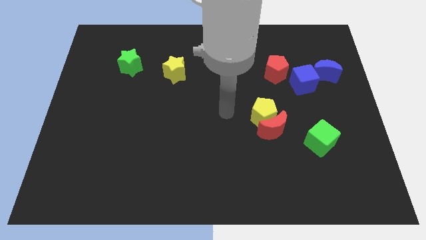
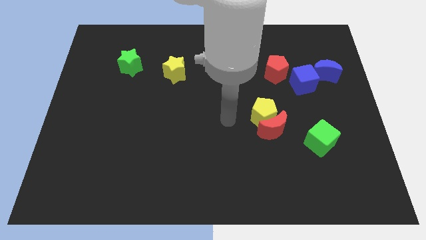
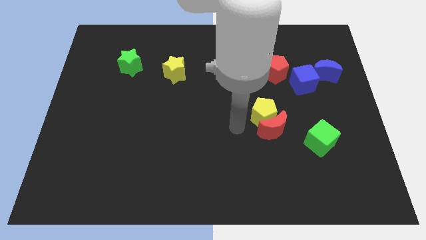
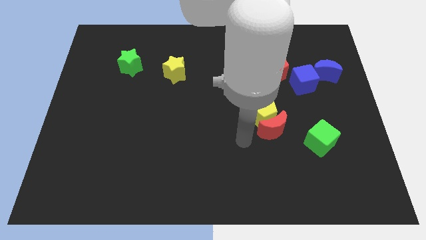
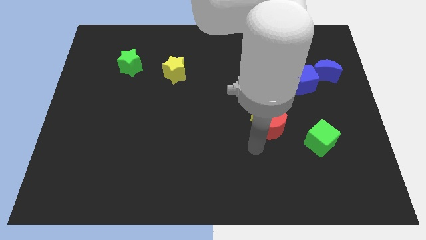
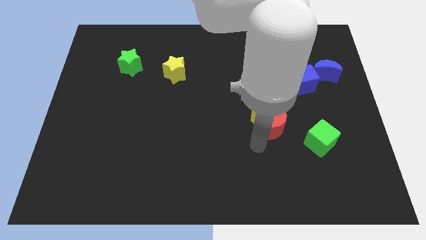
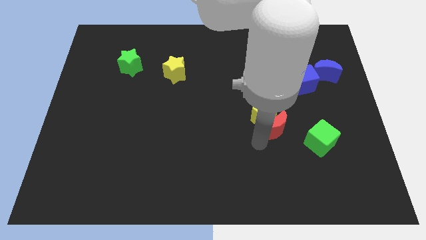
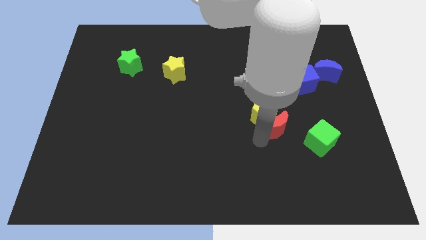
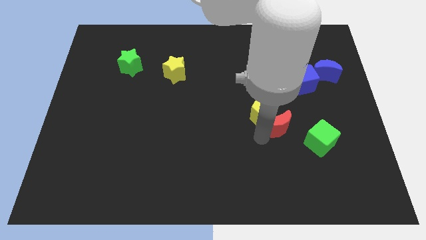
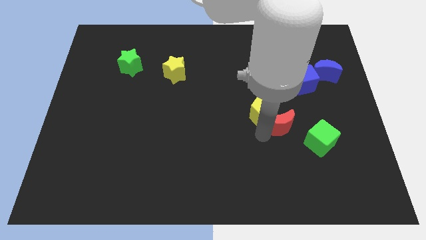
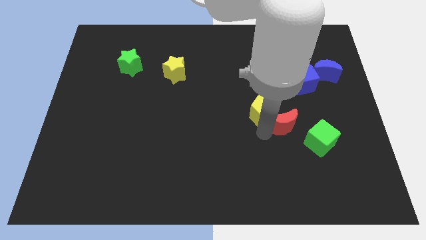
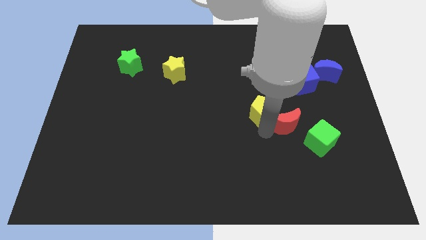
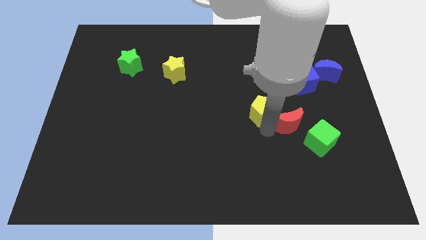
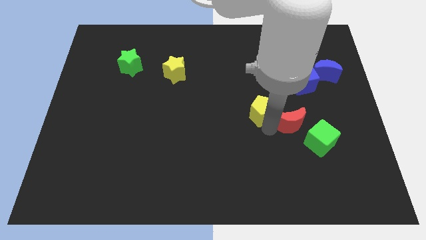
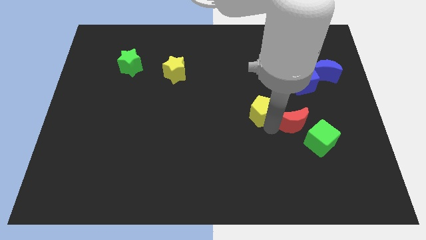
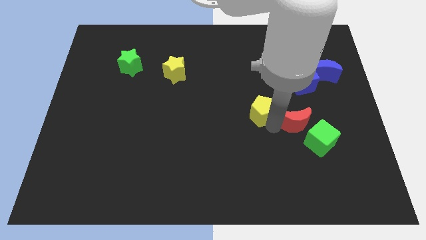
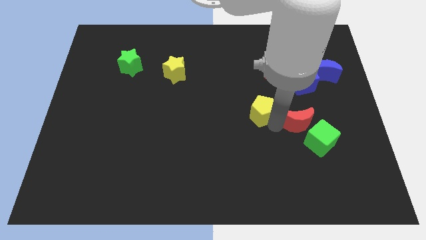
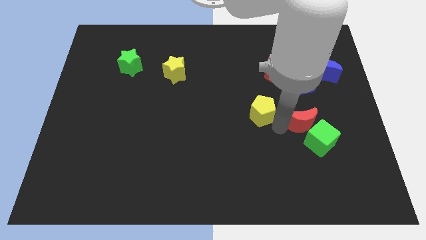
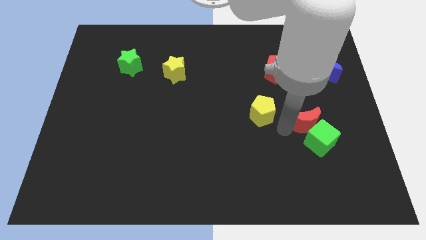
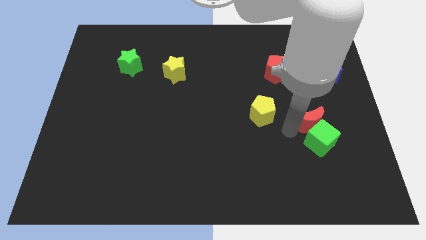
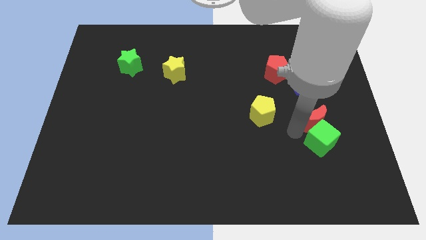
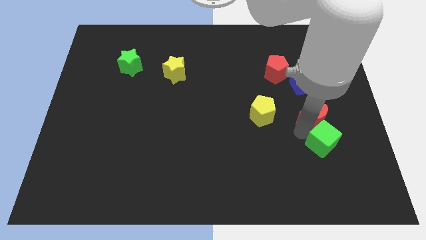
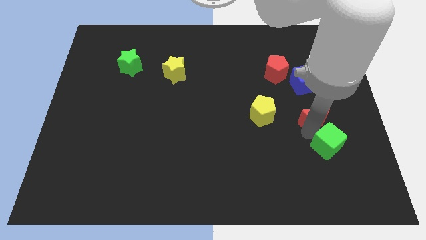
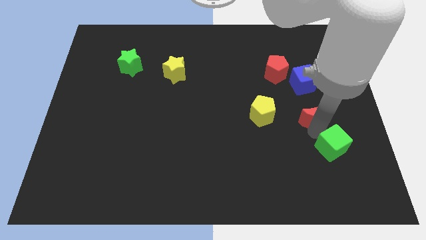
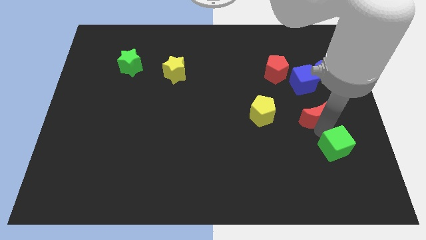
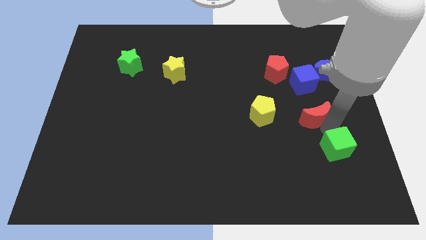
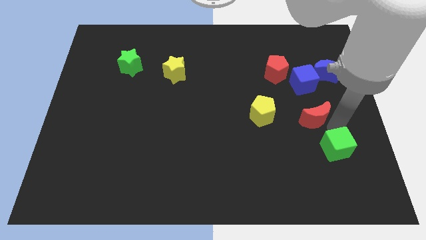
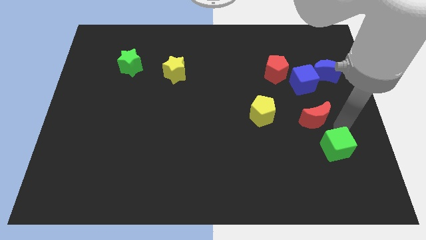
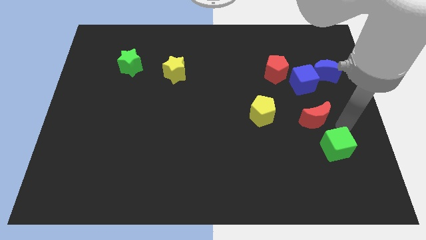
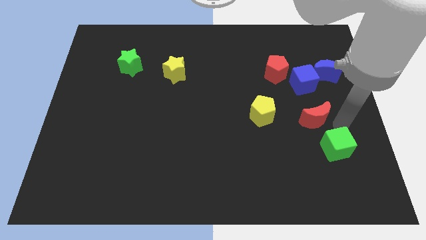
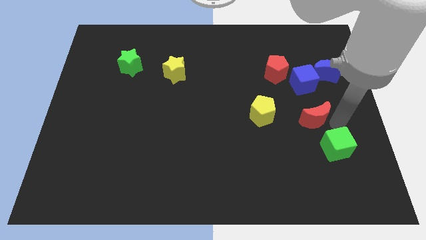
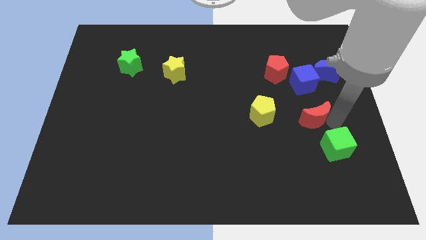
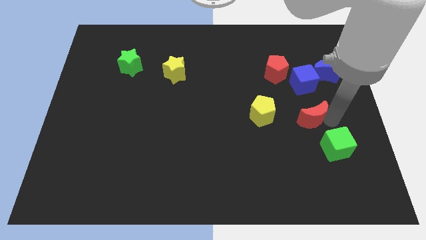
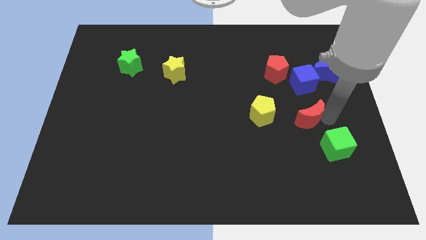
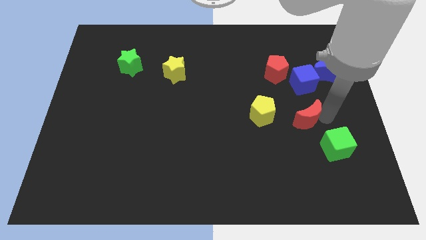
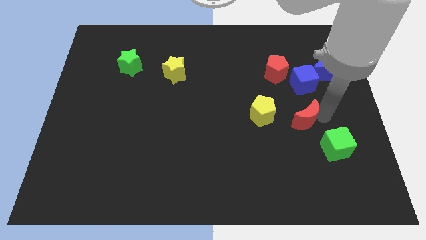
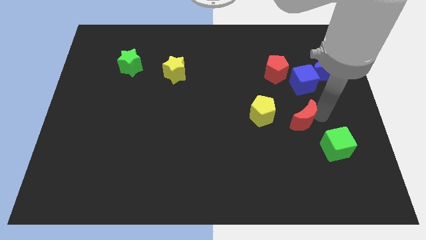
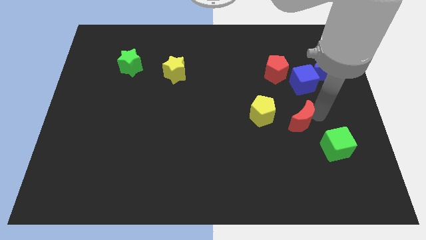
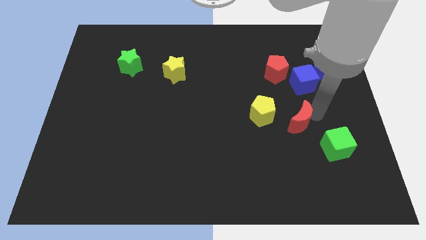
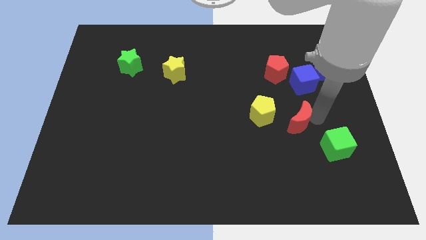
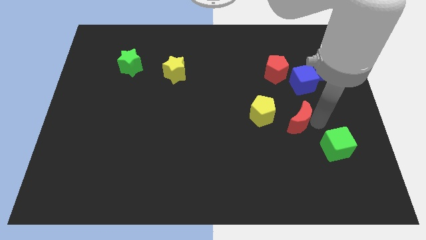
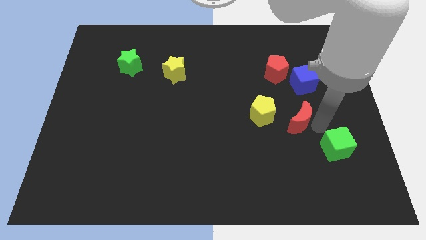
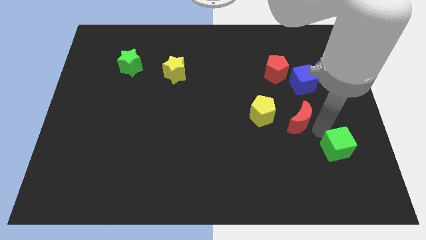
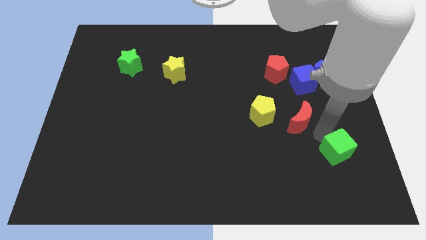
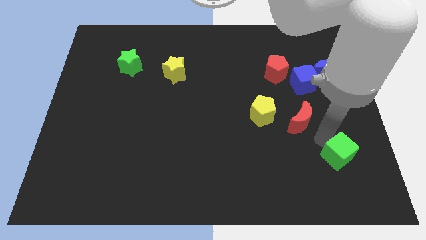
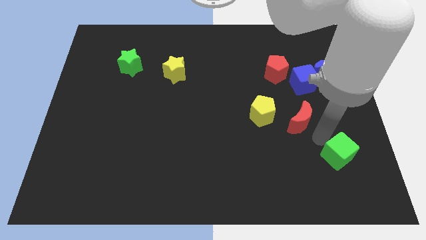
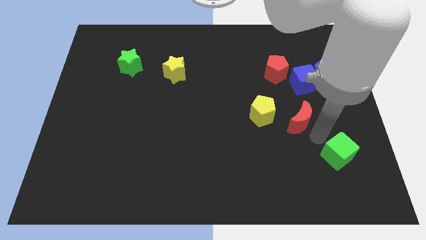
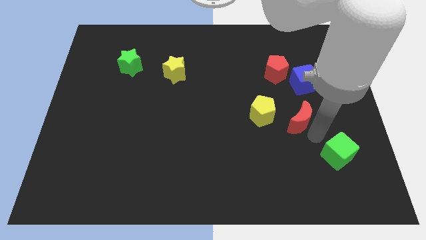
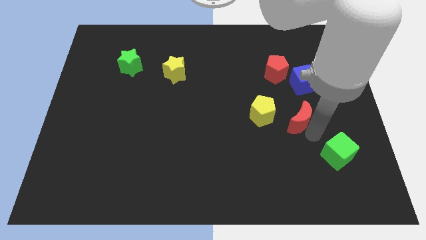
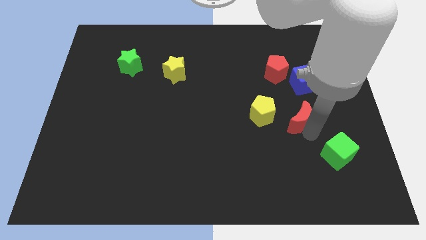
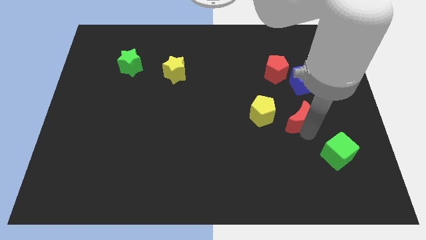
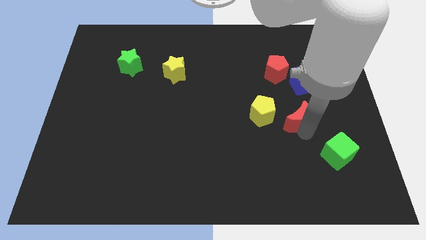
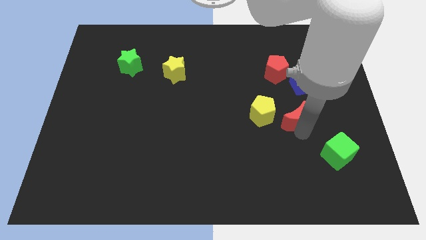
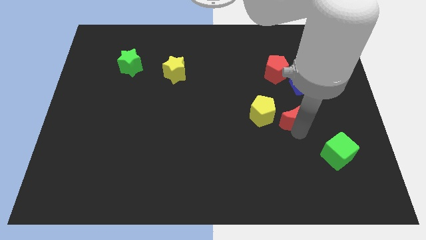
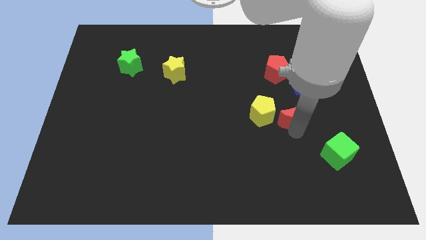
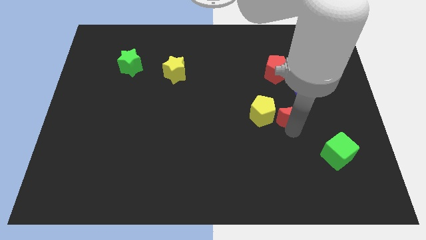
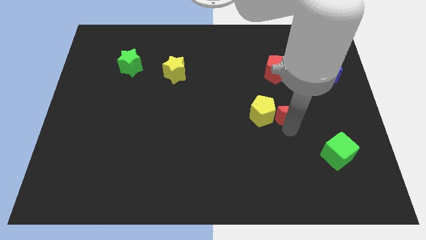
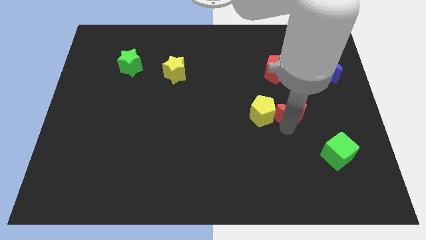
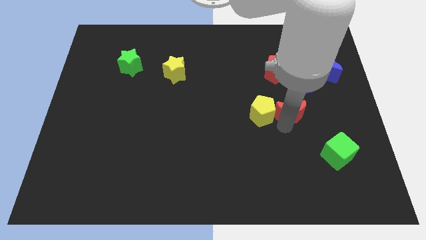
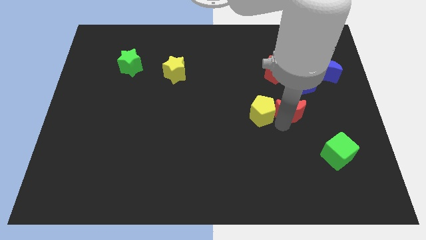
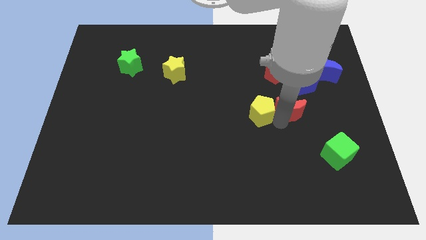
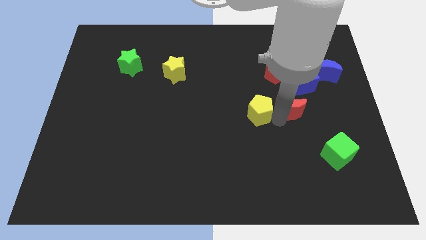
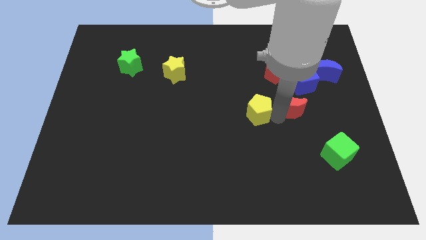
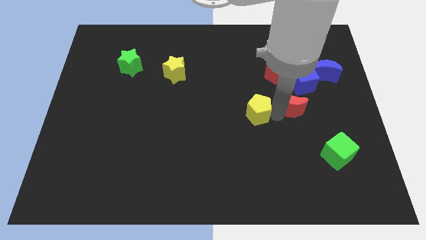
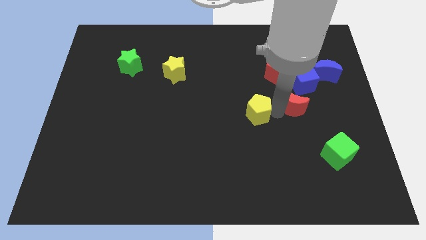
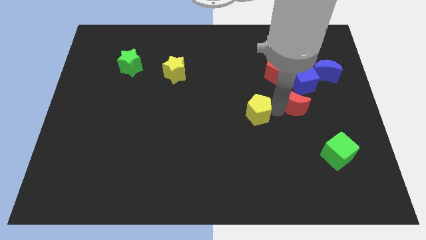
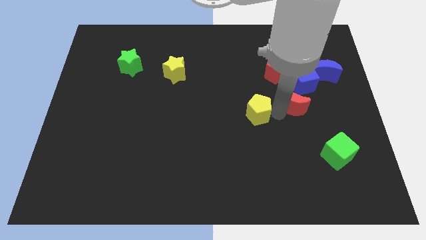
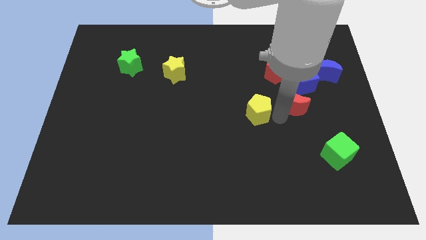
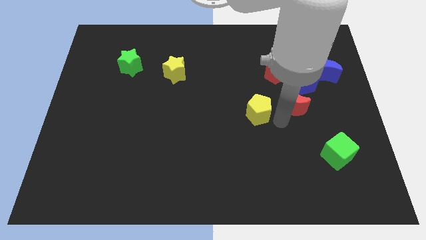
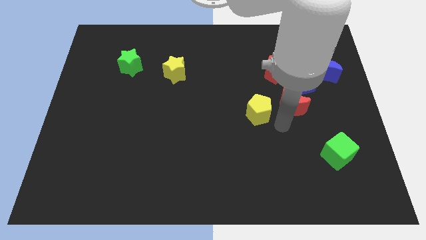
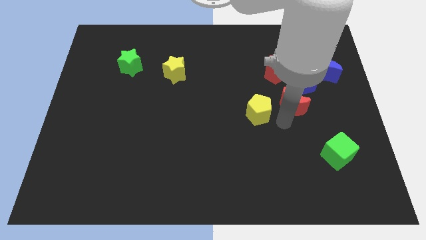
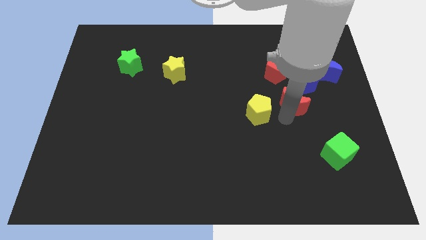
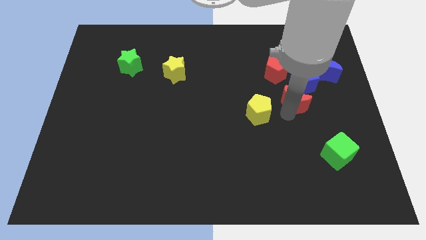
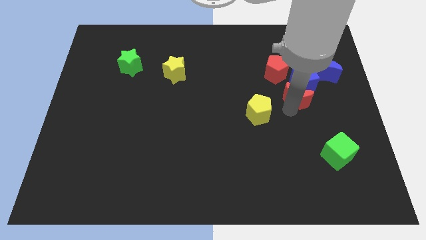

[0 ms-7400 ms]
slide the red moon towards the blue cube
